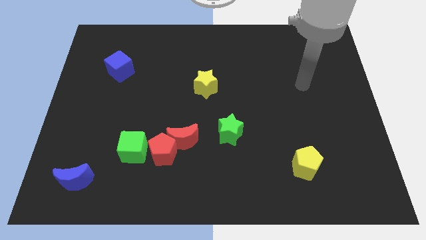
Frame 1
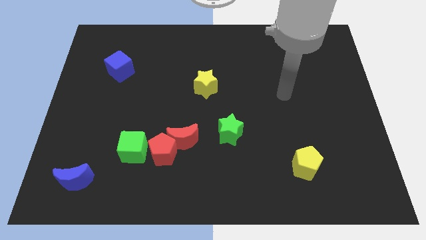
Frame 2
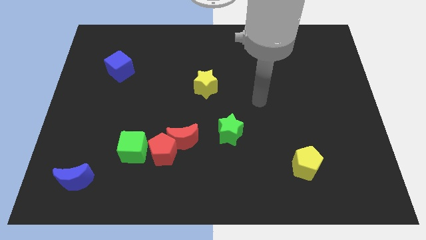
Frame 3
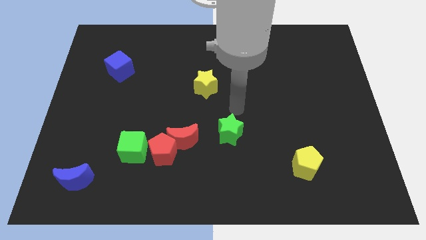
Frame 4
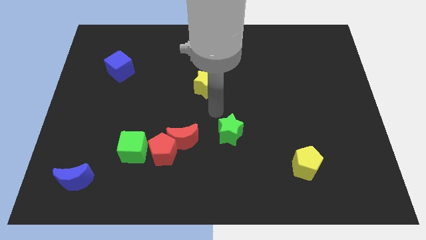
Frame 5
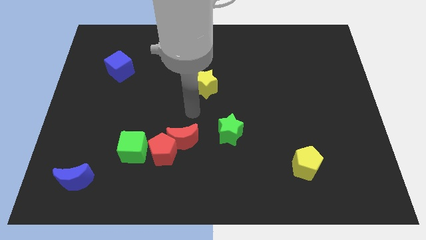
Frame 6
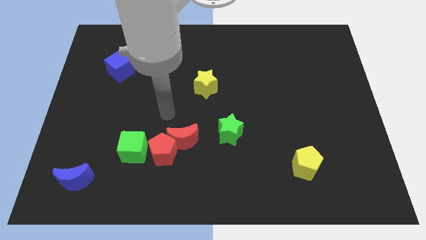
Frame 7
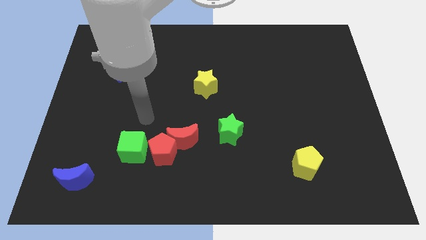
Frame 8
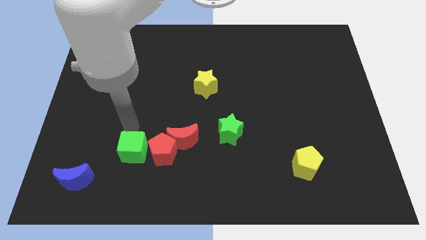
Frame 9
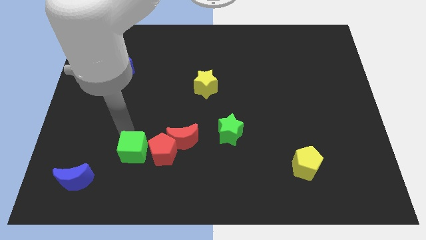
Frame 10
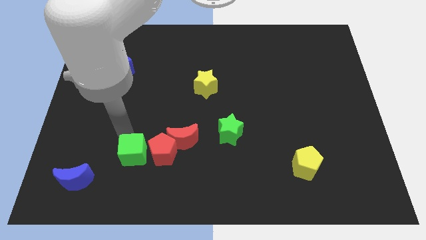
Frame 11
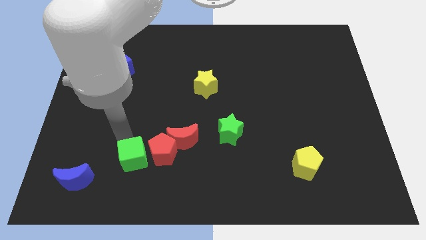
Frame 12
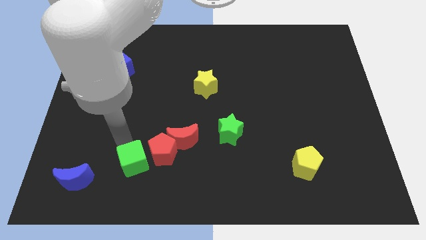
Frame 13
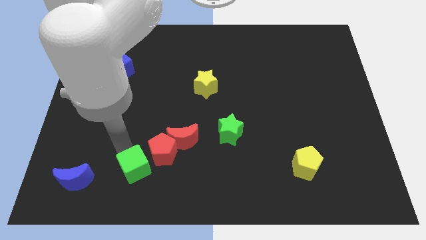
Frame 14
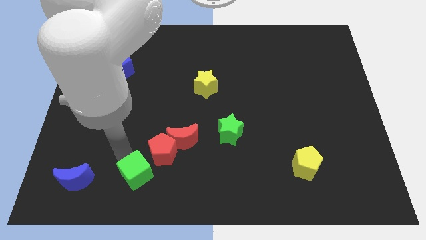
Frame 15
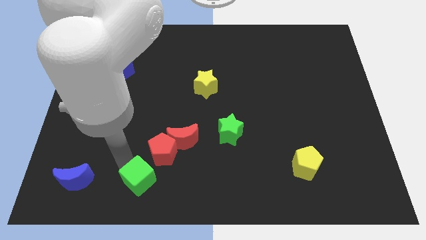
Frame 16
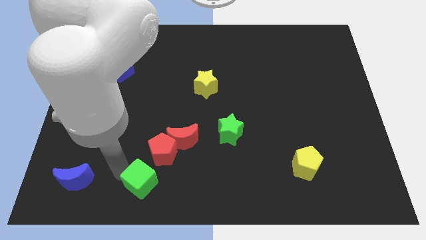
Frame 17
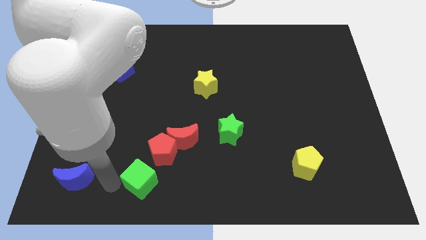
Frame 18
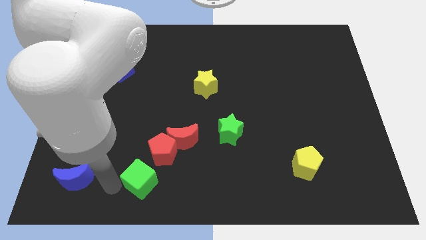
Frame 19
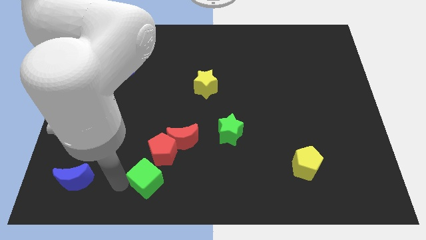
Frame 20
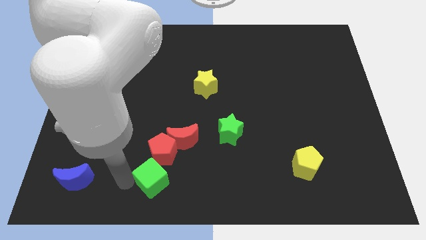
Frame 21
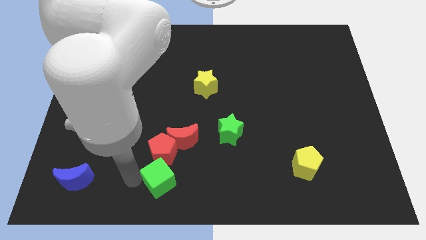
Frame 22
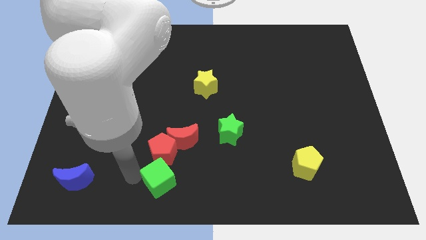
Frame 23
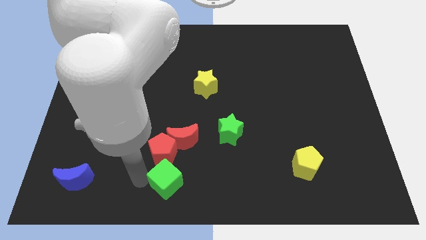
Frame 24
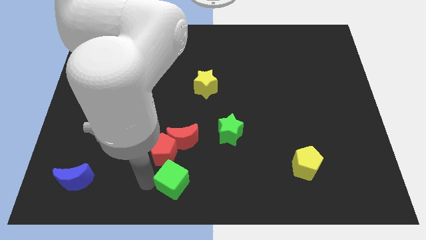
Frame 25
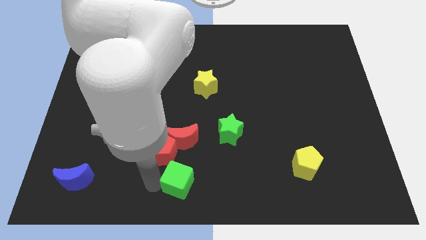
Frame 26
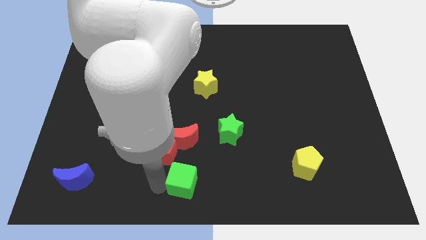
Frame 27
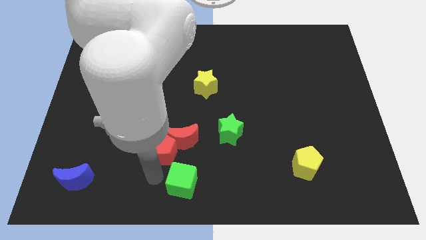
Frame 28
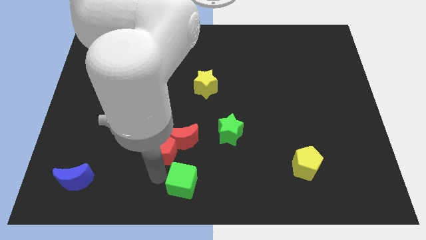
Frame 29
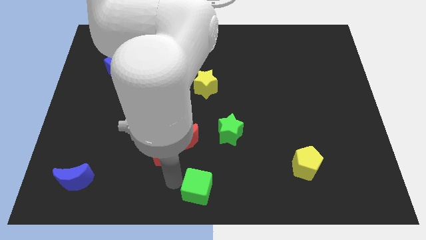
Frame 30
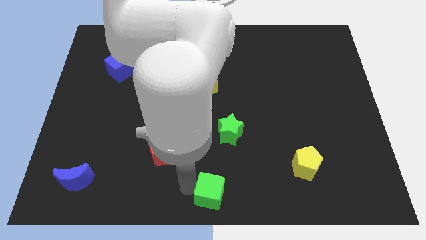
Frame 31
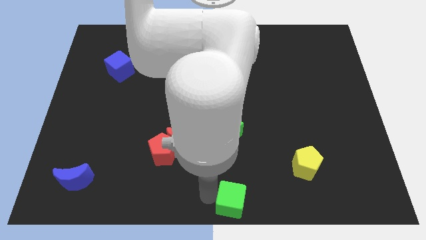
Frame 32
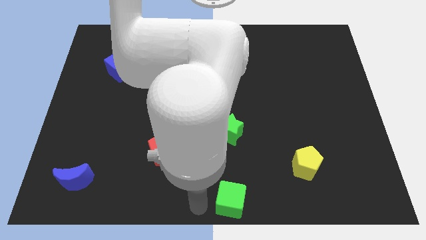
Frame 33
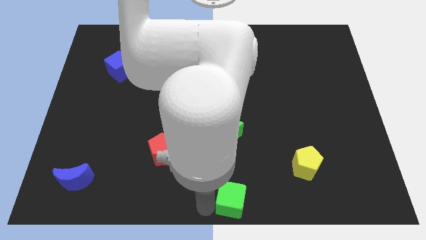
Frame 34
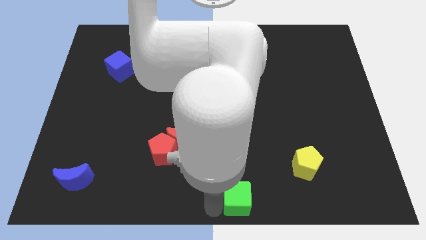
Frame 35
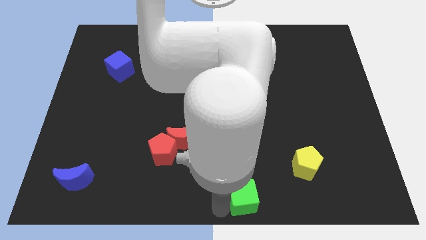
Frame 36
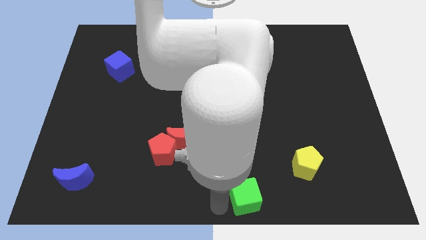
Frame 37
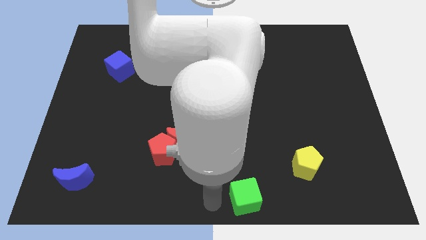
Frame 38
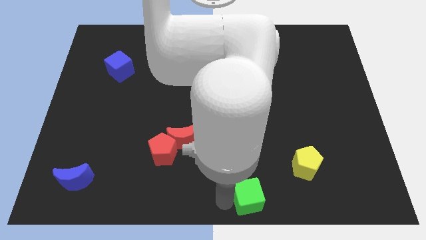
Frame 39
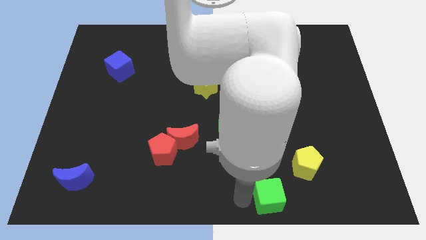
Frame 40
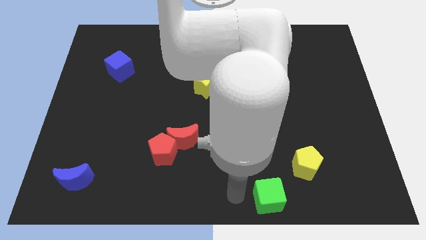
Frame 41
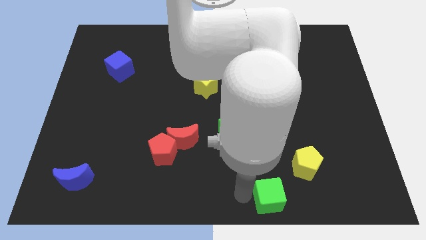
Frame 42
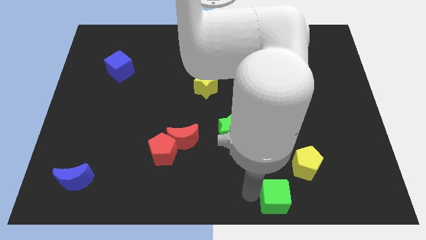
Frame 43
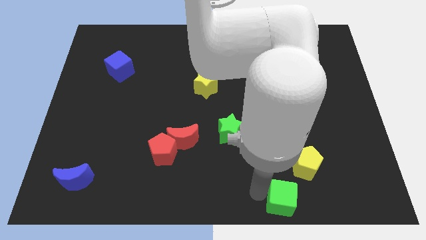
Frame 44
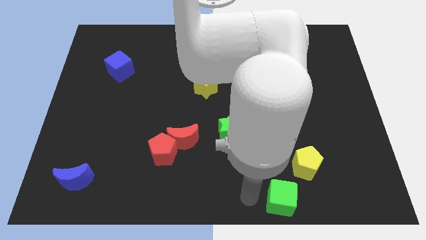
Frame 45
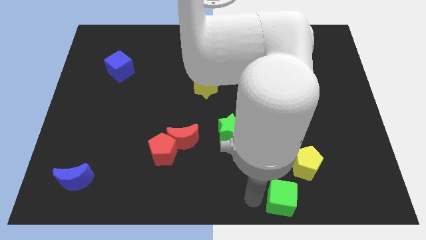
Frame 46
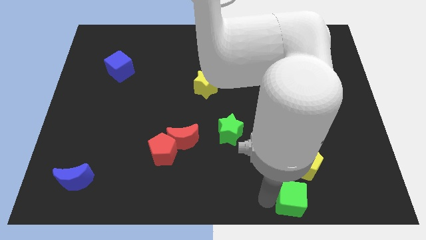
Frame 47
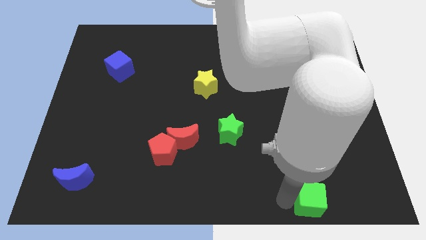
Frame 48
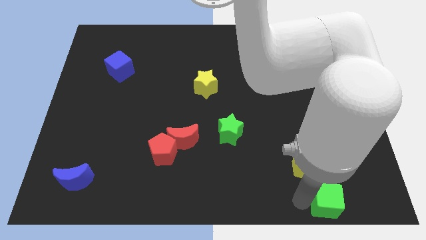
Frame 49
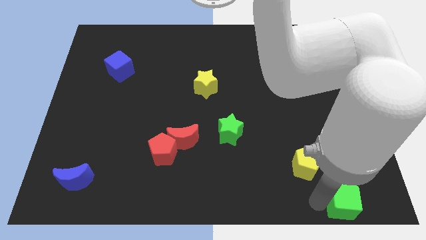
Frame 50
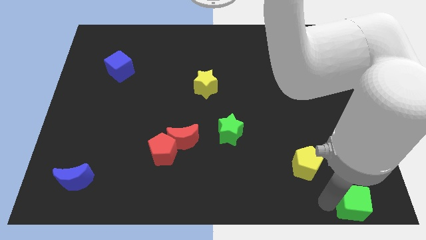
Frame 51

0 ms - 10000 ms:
put the green cube to the lower right corner

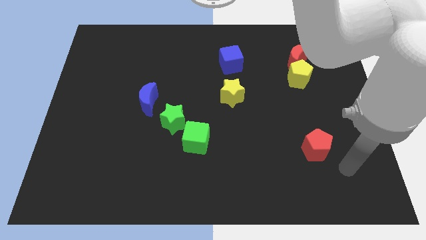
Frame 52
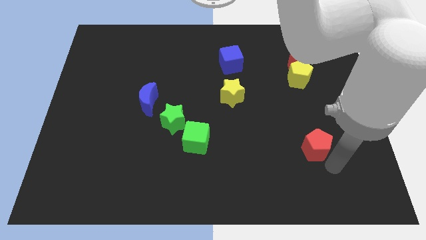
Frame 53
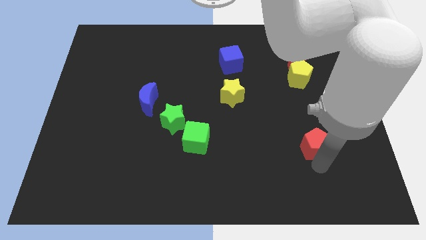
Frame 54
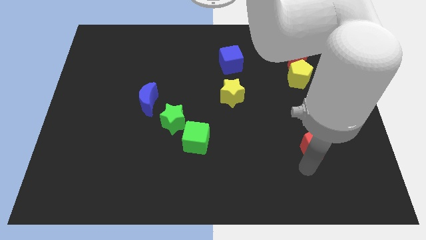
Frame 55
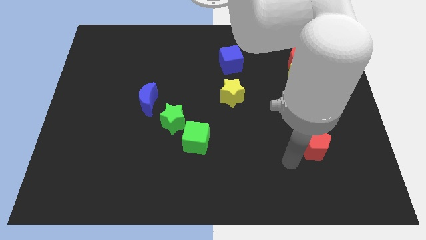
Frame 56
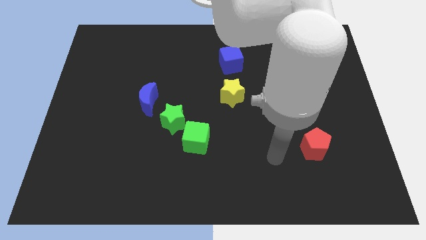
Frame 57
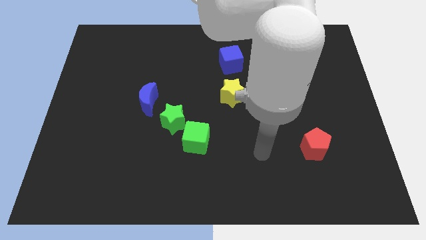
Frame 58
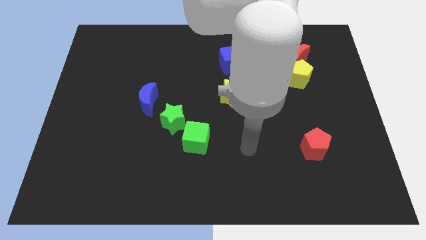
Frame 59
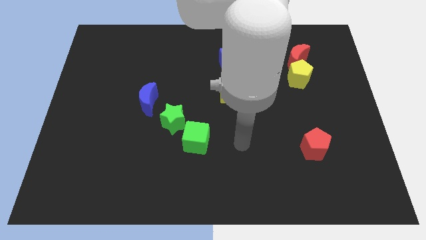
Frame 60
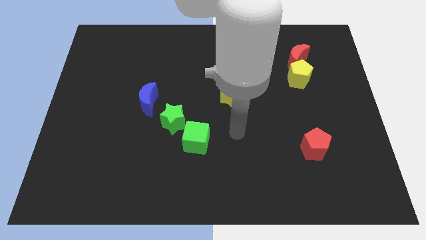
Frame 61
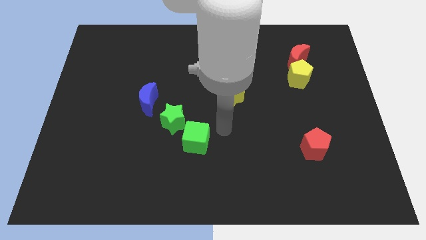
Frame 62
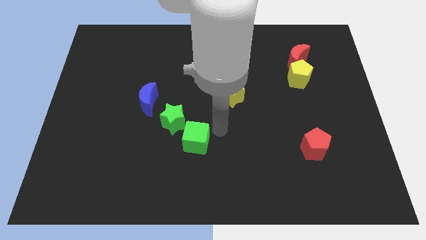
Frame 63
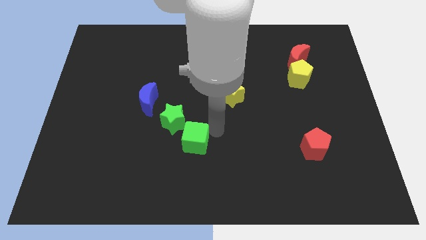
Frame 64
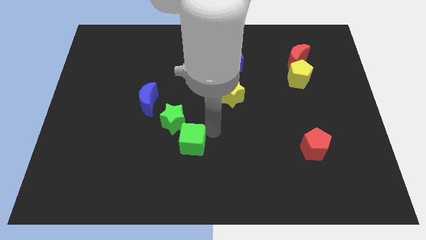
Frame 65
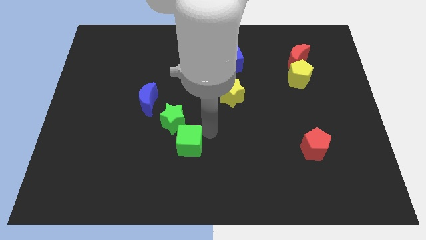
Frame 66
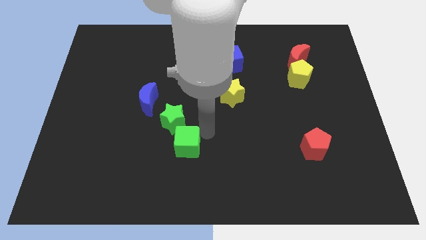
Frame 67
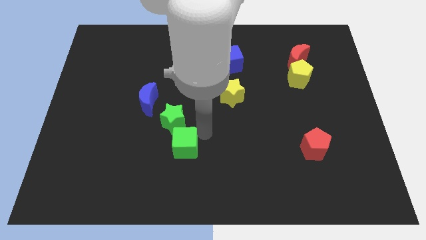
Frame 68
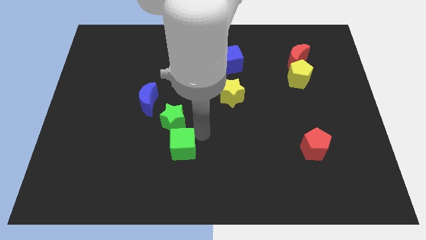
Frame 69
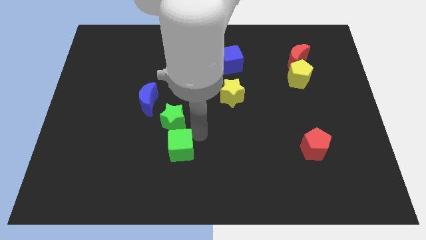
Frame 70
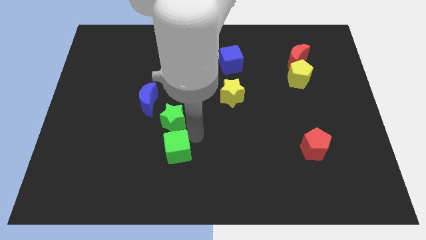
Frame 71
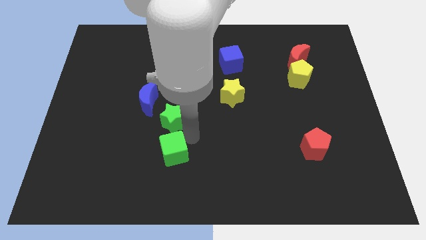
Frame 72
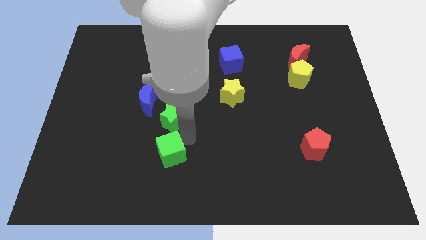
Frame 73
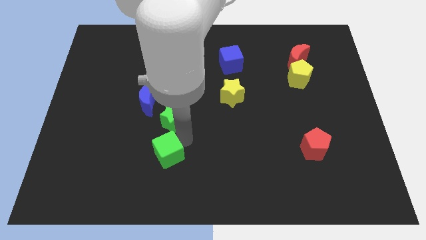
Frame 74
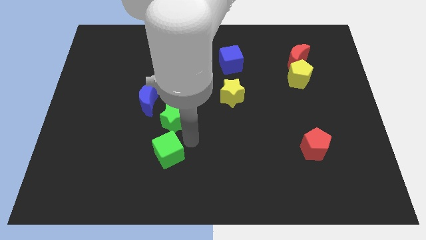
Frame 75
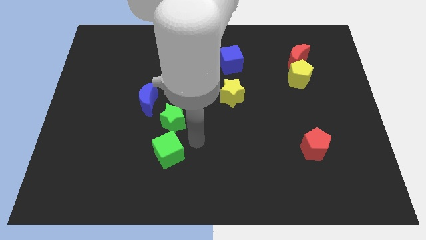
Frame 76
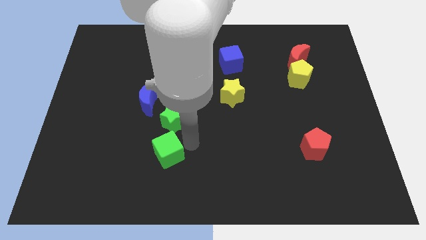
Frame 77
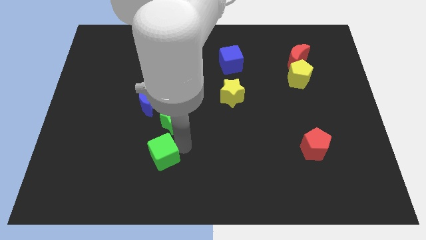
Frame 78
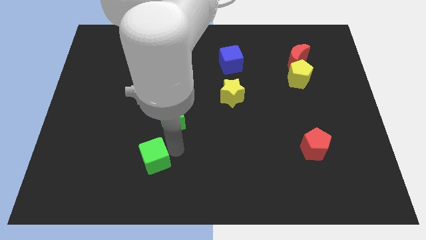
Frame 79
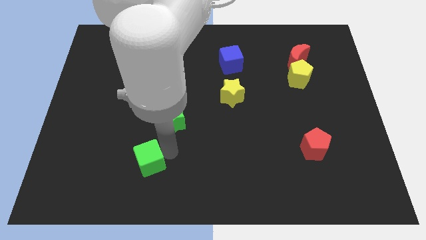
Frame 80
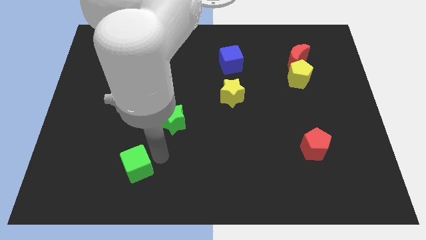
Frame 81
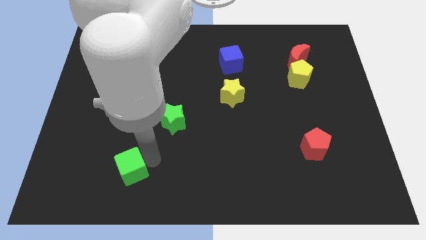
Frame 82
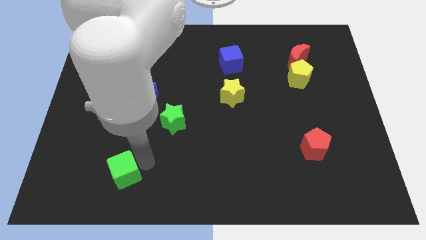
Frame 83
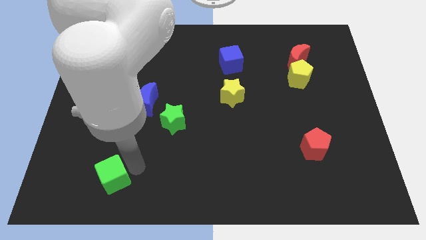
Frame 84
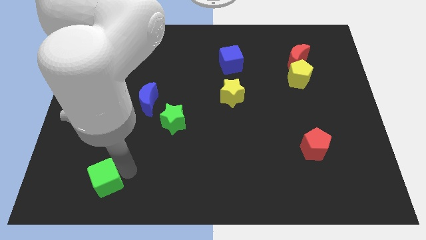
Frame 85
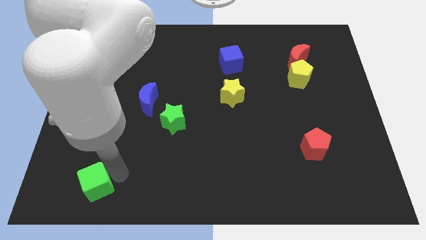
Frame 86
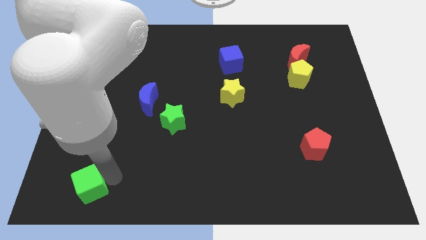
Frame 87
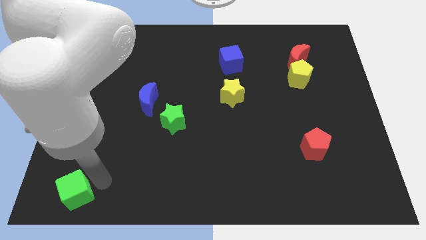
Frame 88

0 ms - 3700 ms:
slide the green cube to the lower left corner
